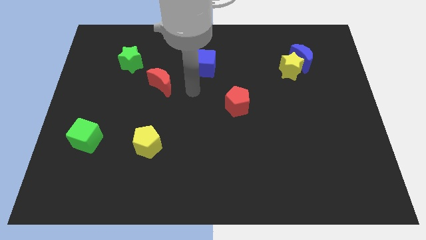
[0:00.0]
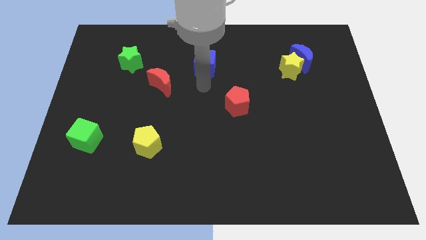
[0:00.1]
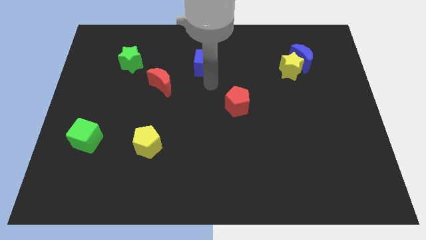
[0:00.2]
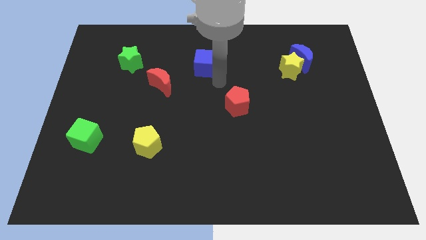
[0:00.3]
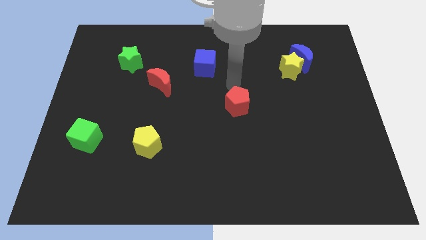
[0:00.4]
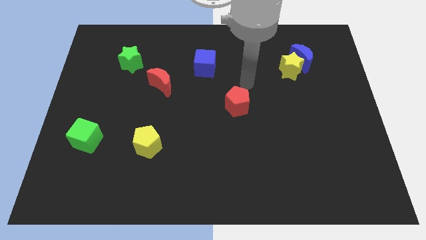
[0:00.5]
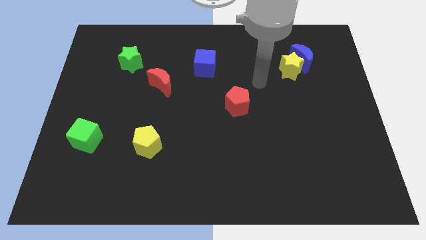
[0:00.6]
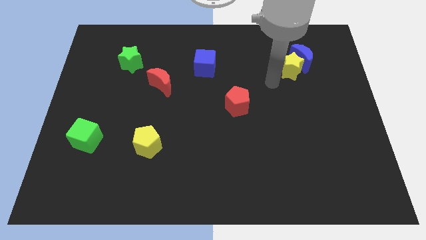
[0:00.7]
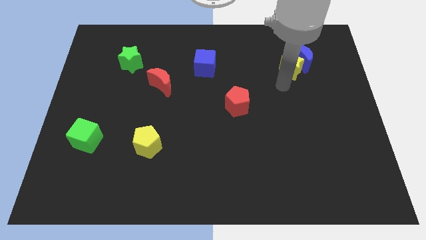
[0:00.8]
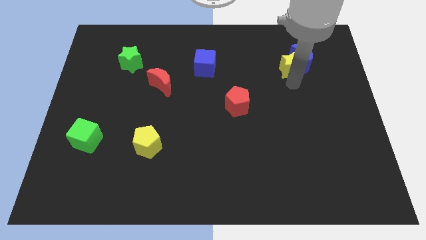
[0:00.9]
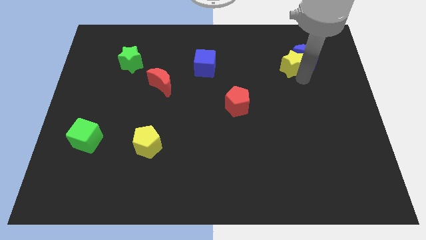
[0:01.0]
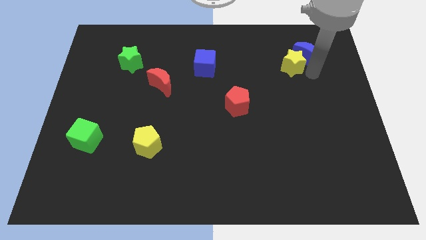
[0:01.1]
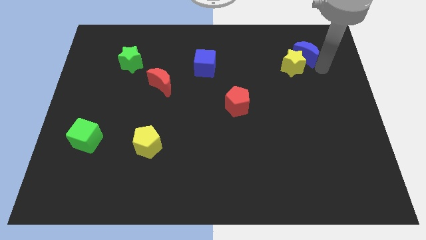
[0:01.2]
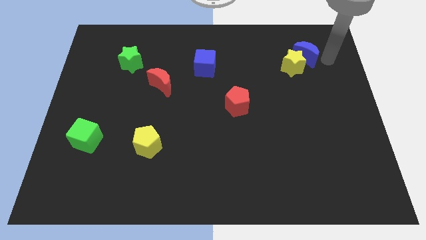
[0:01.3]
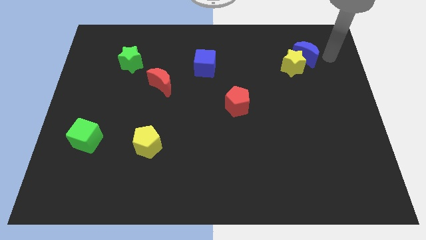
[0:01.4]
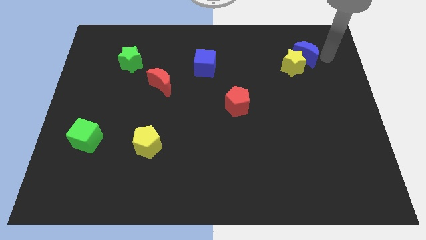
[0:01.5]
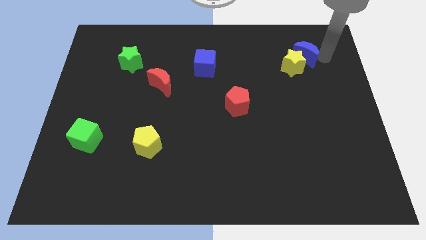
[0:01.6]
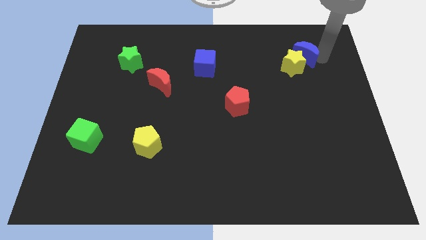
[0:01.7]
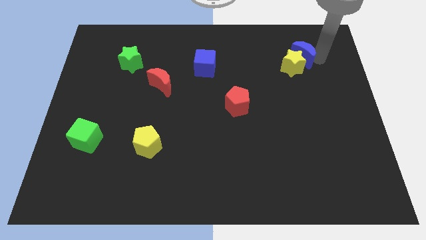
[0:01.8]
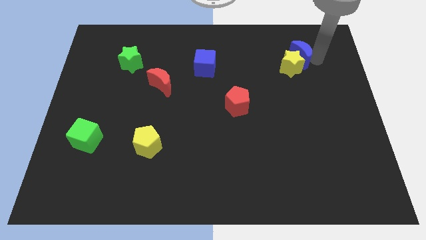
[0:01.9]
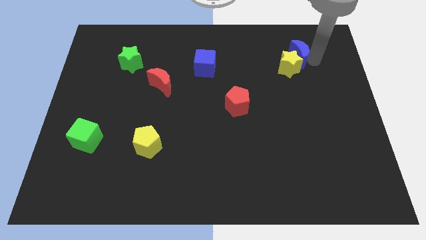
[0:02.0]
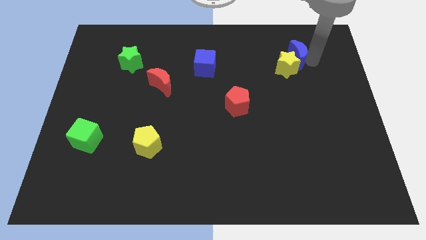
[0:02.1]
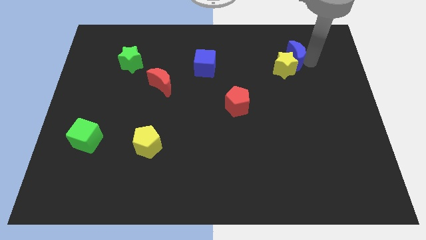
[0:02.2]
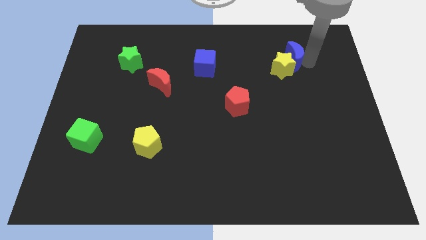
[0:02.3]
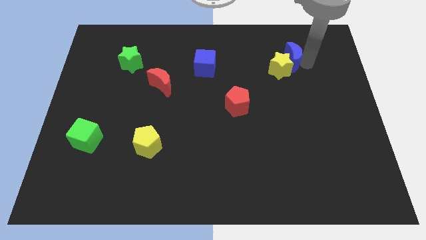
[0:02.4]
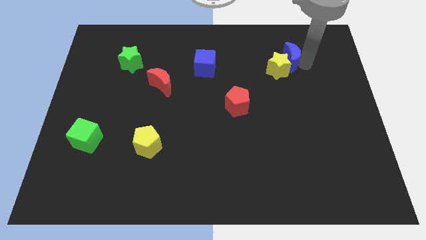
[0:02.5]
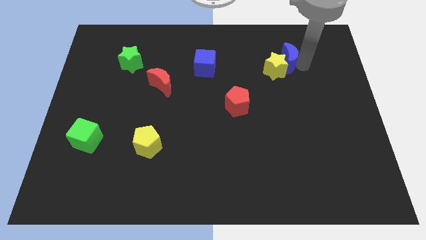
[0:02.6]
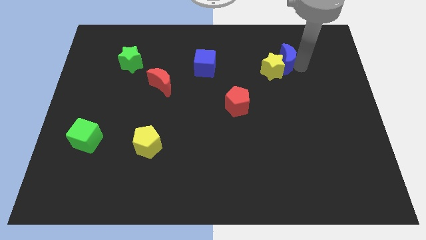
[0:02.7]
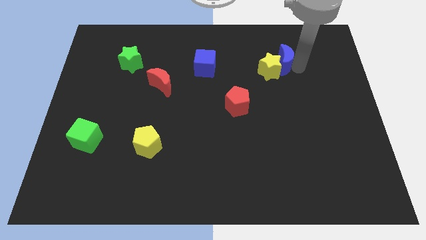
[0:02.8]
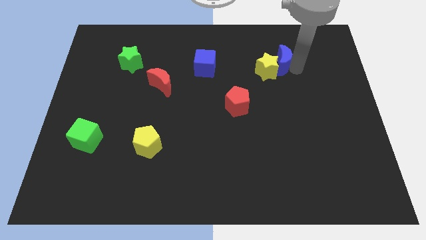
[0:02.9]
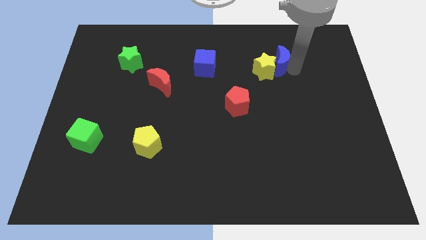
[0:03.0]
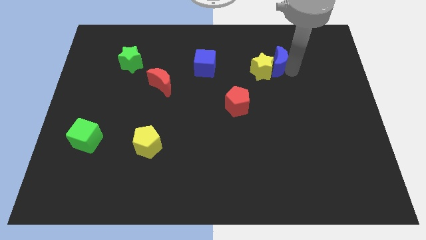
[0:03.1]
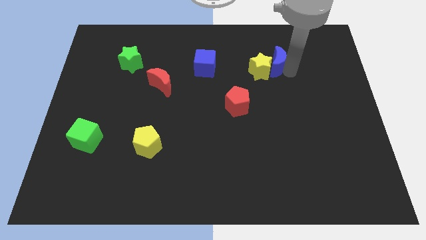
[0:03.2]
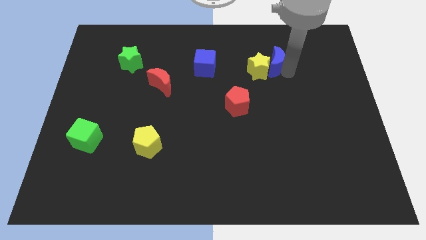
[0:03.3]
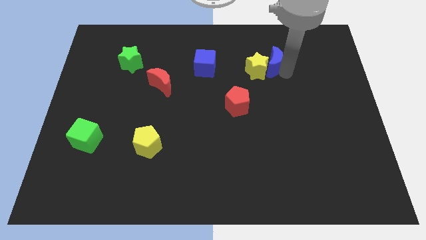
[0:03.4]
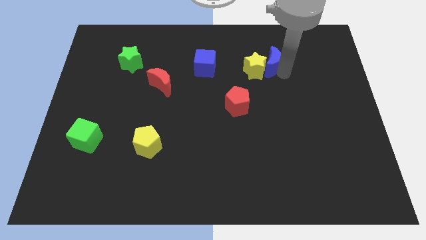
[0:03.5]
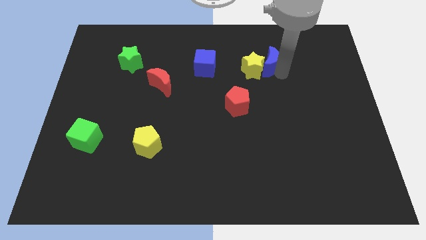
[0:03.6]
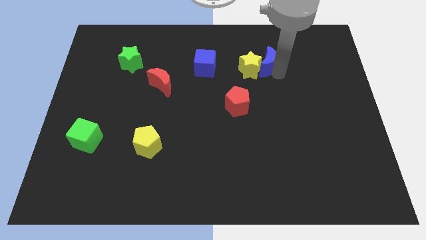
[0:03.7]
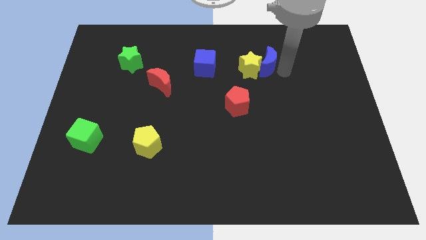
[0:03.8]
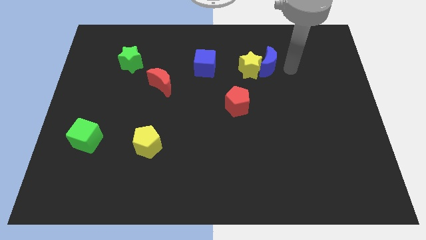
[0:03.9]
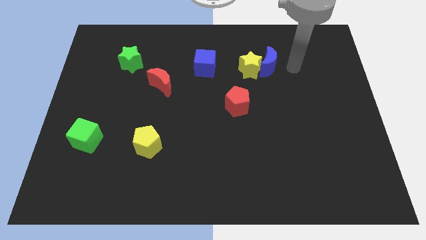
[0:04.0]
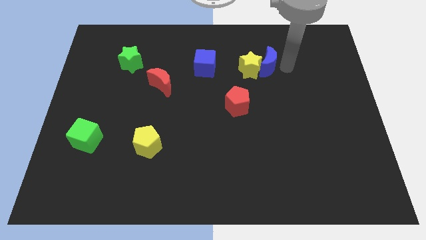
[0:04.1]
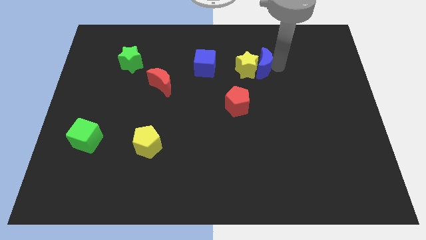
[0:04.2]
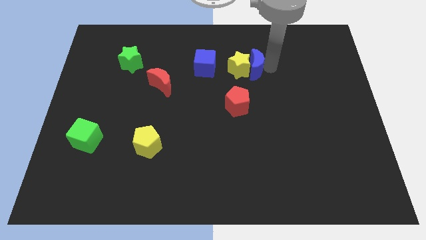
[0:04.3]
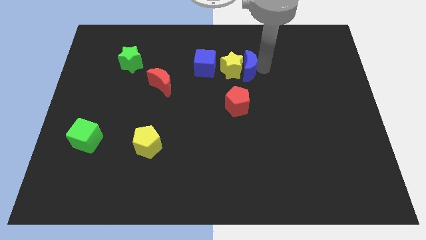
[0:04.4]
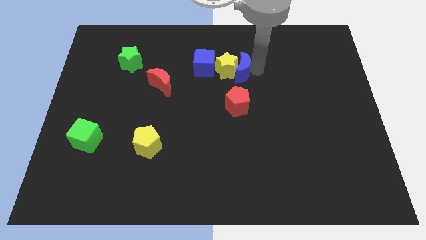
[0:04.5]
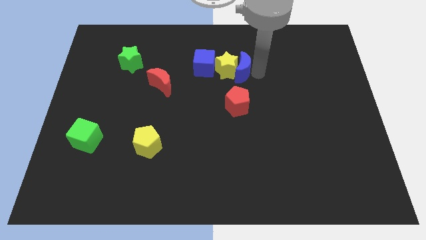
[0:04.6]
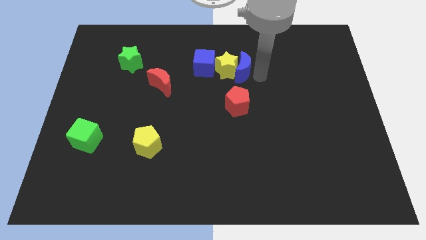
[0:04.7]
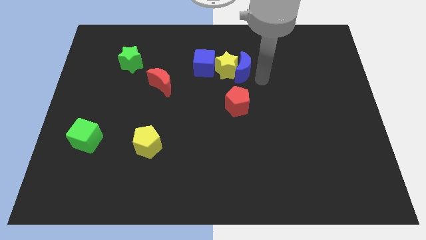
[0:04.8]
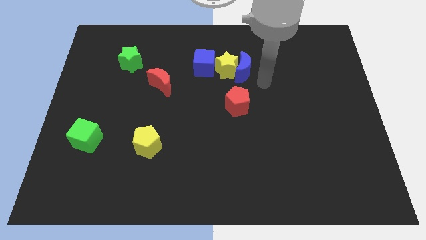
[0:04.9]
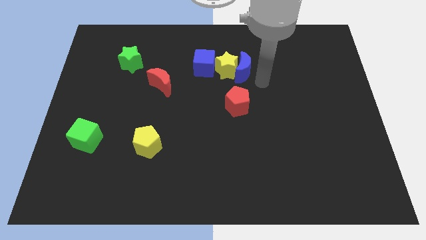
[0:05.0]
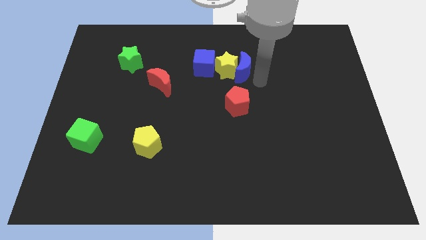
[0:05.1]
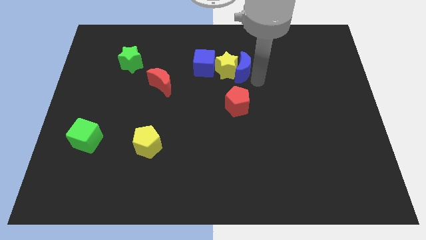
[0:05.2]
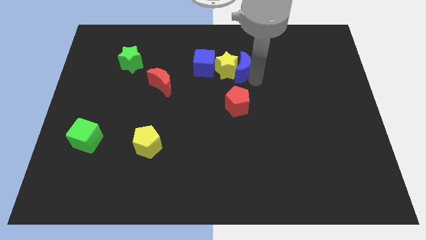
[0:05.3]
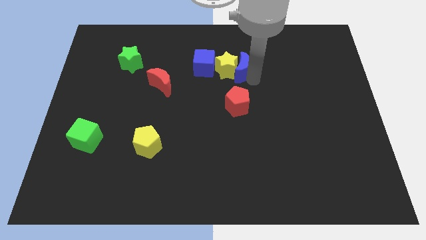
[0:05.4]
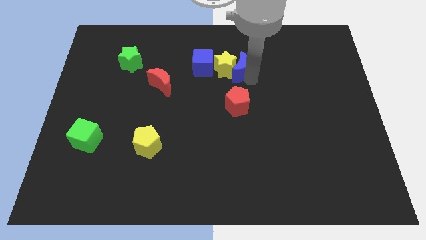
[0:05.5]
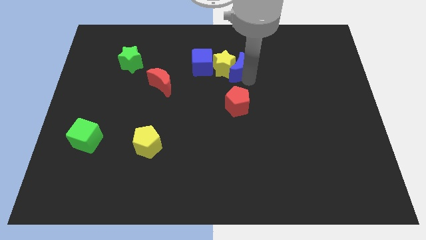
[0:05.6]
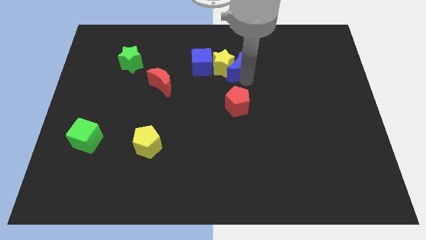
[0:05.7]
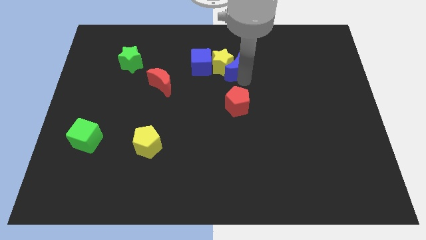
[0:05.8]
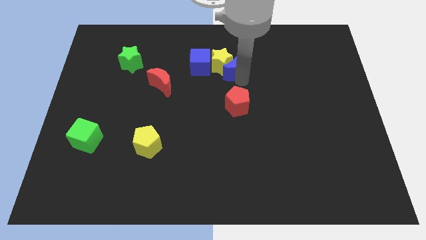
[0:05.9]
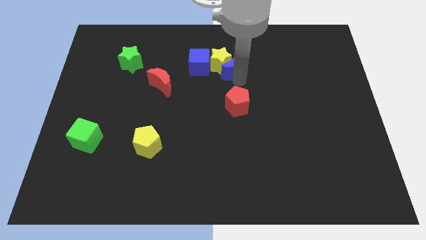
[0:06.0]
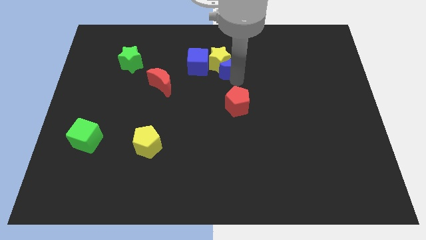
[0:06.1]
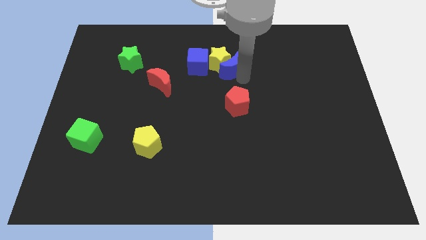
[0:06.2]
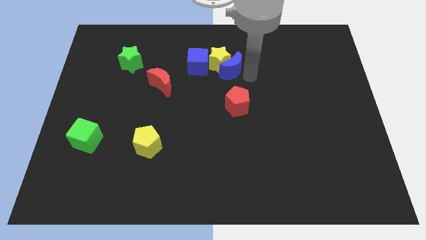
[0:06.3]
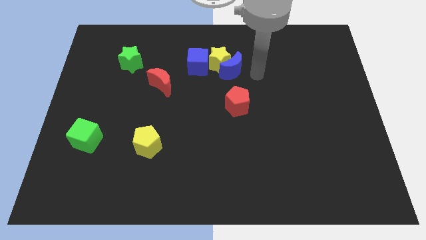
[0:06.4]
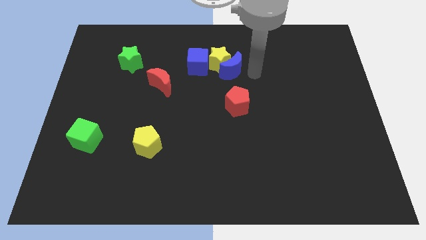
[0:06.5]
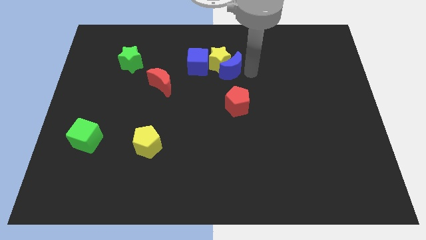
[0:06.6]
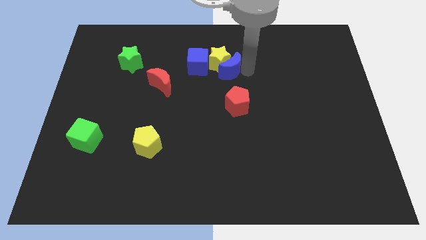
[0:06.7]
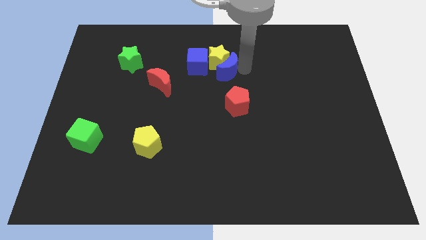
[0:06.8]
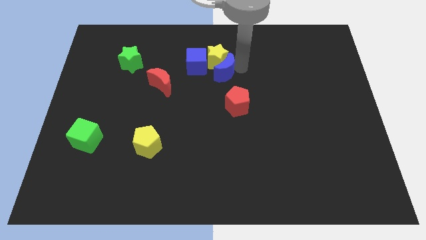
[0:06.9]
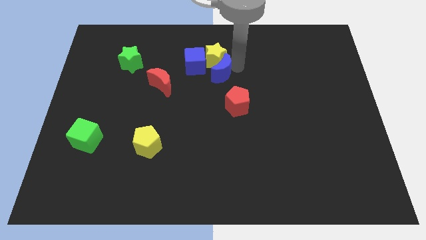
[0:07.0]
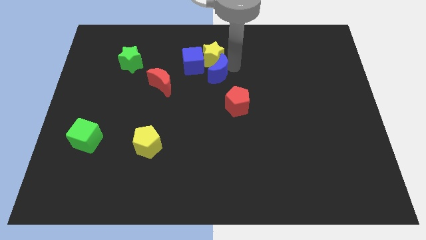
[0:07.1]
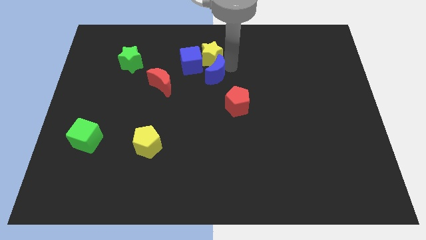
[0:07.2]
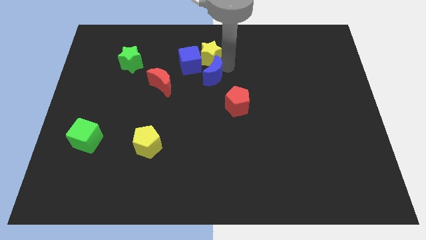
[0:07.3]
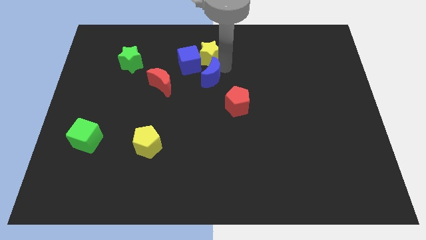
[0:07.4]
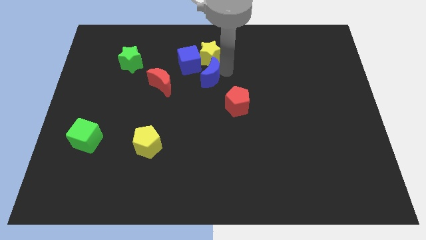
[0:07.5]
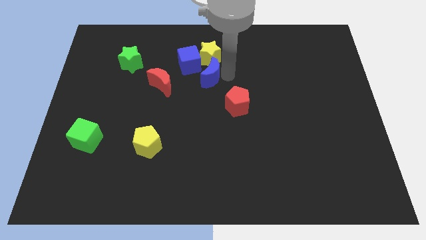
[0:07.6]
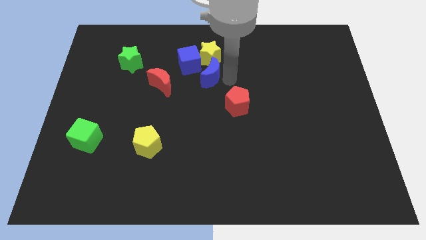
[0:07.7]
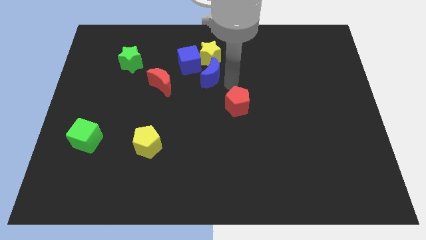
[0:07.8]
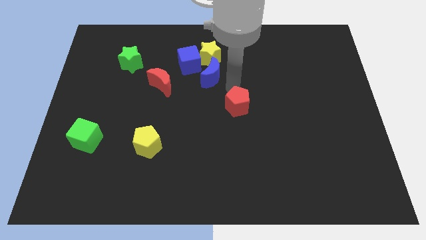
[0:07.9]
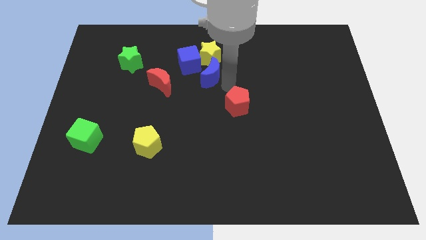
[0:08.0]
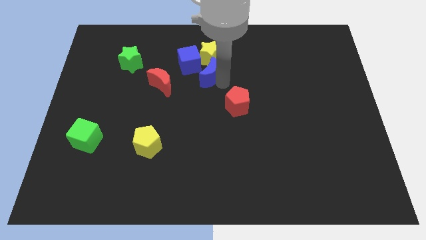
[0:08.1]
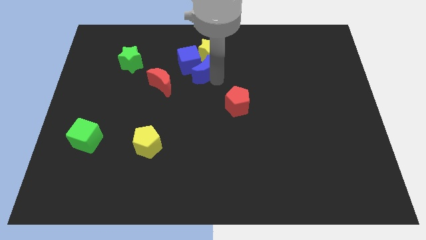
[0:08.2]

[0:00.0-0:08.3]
put the blue moon close to the blue cube
